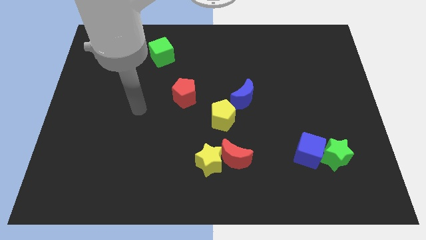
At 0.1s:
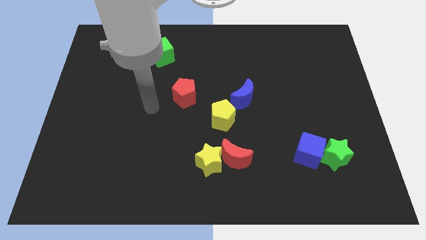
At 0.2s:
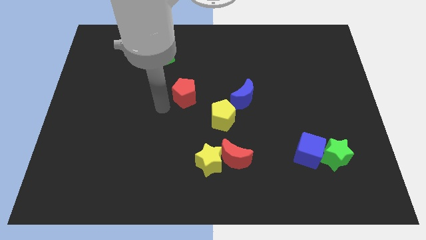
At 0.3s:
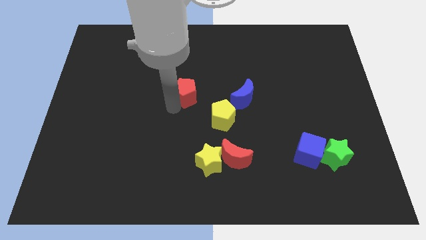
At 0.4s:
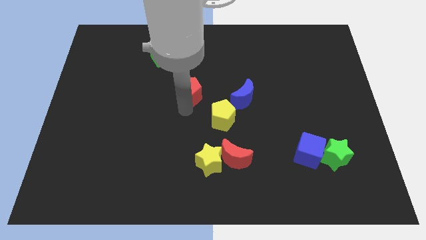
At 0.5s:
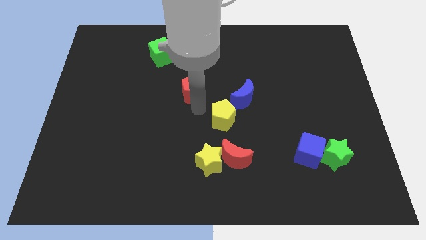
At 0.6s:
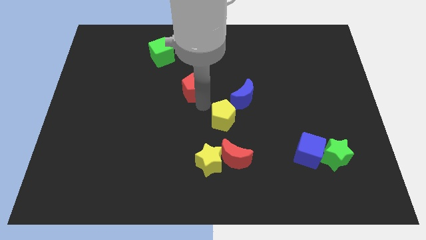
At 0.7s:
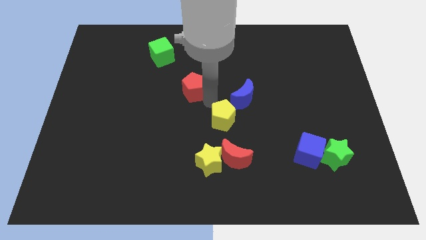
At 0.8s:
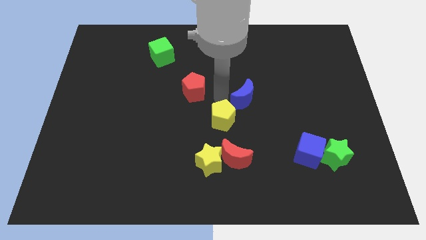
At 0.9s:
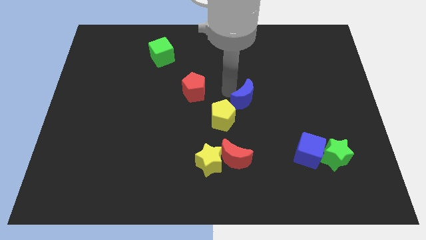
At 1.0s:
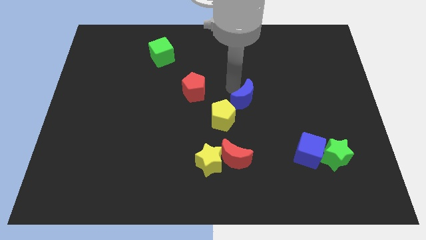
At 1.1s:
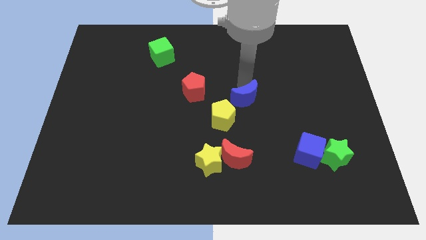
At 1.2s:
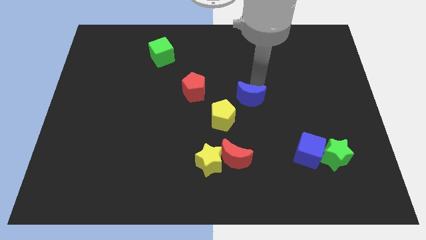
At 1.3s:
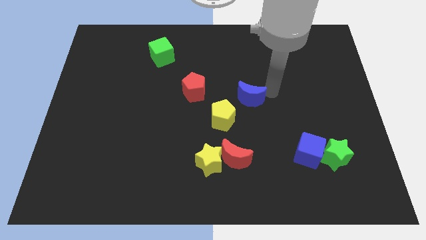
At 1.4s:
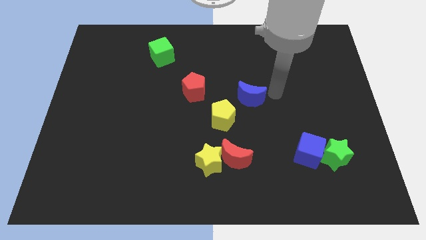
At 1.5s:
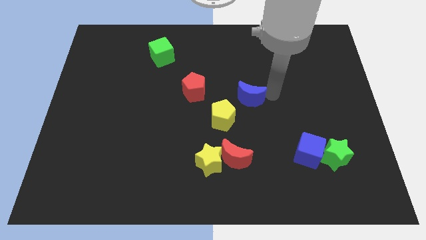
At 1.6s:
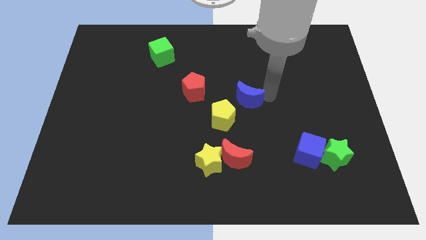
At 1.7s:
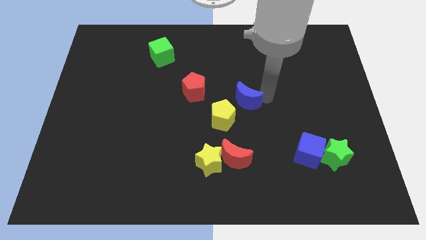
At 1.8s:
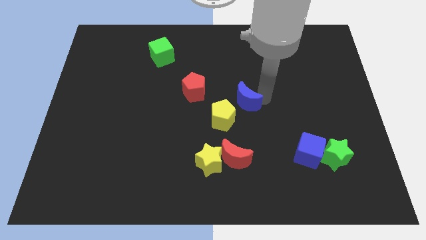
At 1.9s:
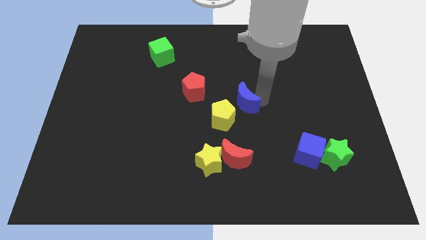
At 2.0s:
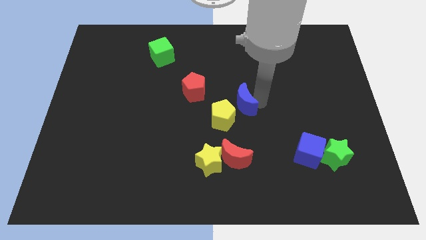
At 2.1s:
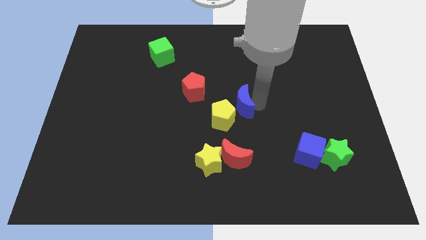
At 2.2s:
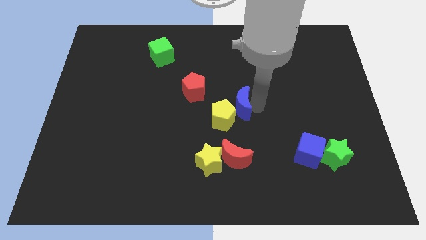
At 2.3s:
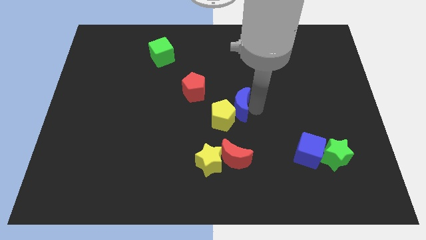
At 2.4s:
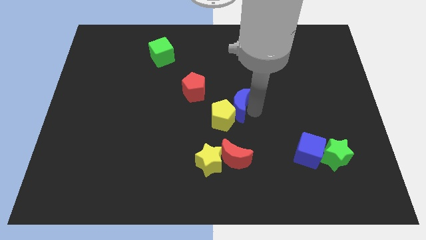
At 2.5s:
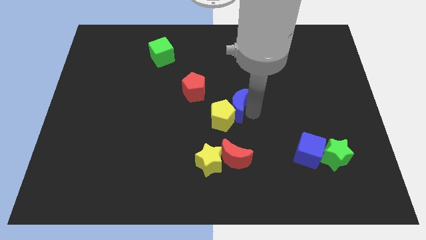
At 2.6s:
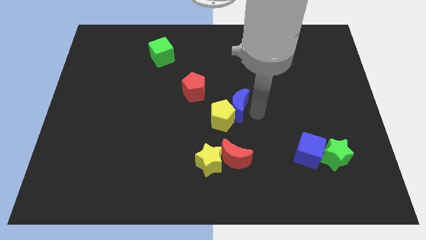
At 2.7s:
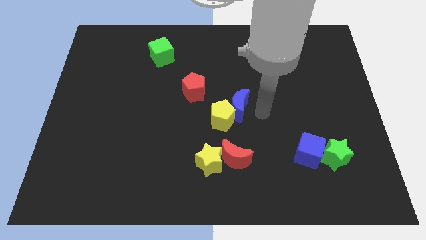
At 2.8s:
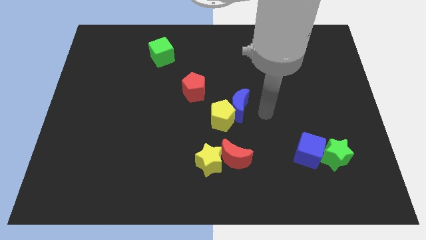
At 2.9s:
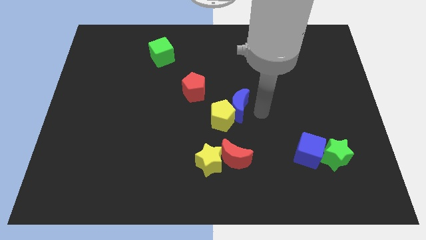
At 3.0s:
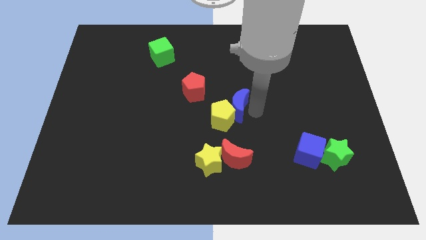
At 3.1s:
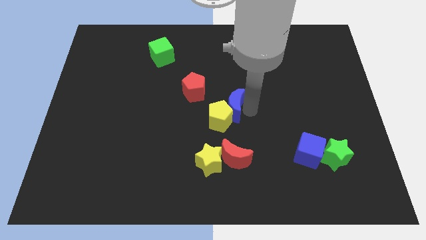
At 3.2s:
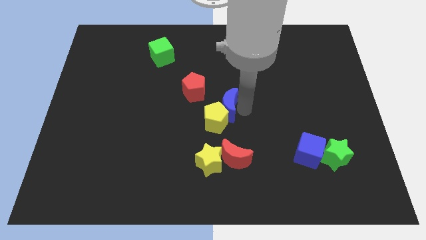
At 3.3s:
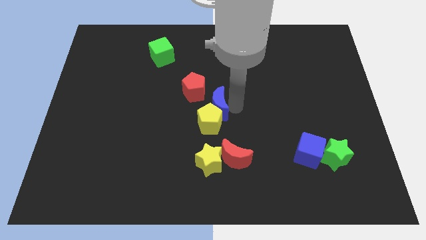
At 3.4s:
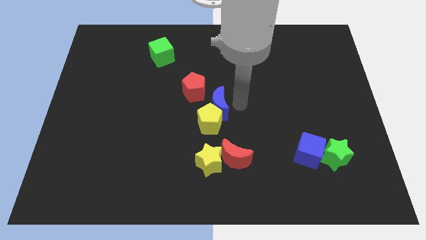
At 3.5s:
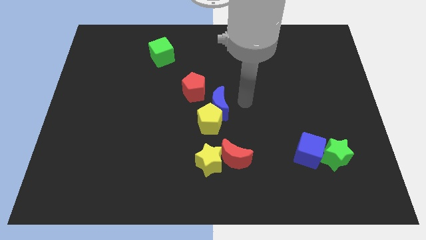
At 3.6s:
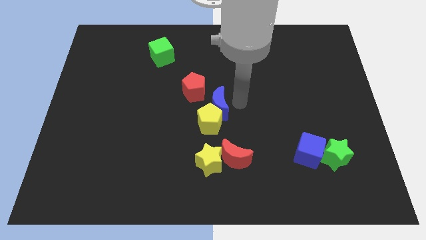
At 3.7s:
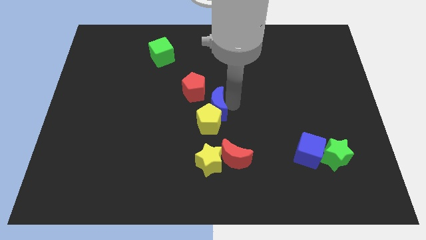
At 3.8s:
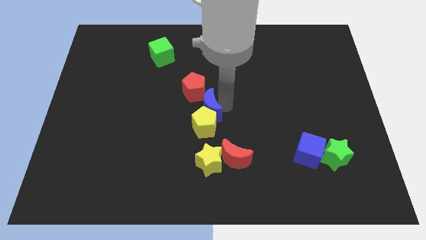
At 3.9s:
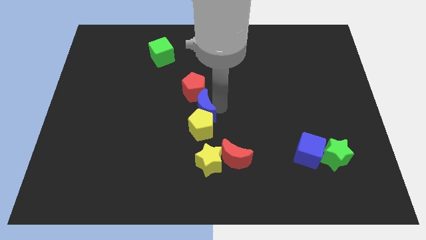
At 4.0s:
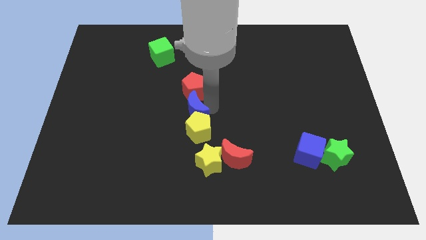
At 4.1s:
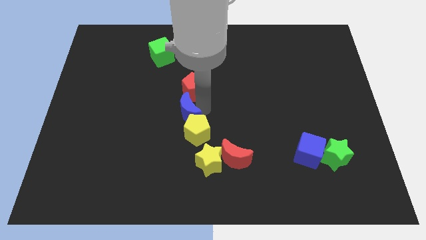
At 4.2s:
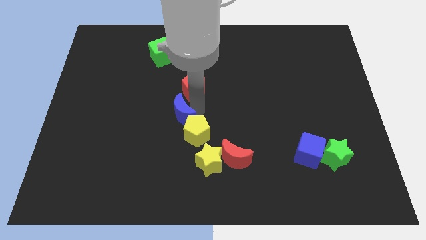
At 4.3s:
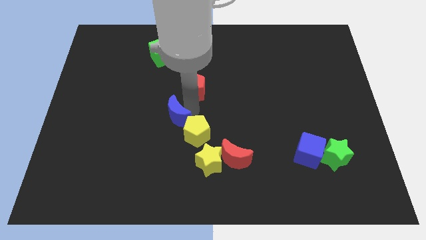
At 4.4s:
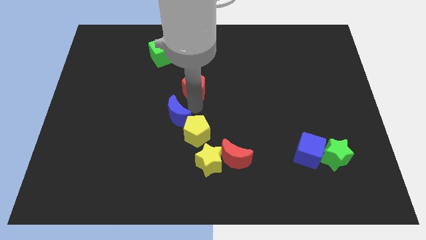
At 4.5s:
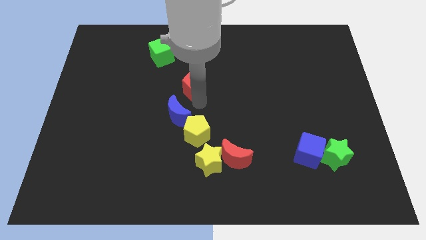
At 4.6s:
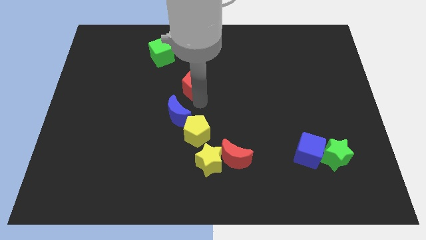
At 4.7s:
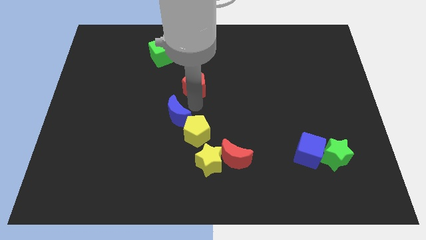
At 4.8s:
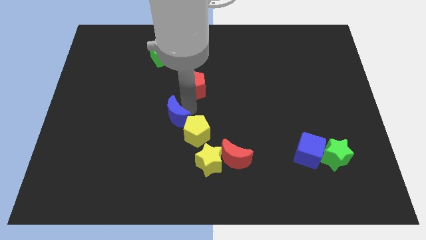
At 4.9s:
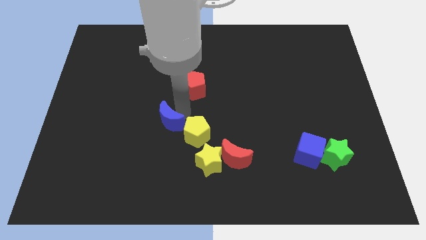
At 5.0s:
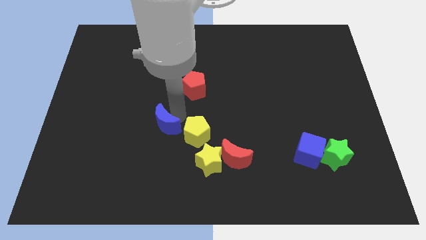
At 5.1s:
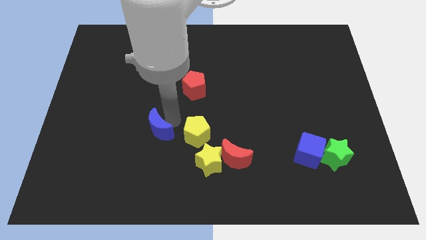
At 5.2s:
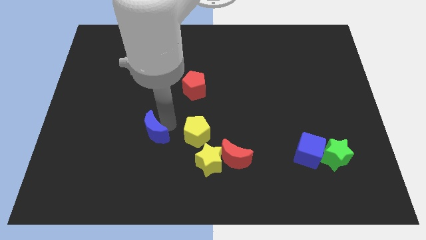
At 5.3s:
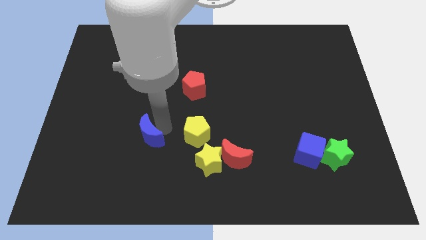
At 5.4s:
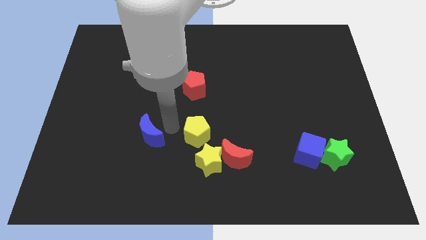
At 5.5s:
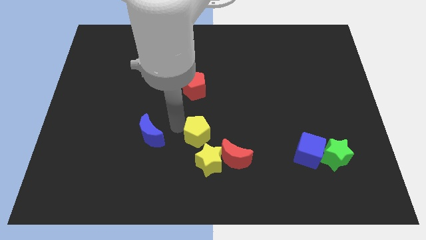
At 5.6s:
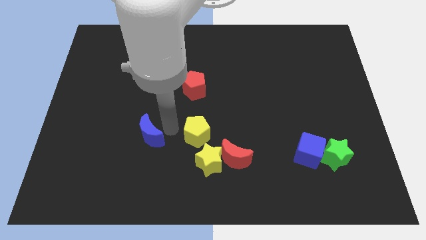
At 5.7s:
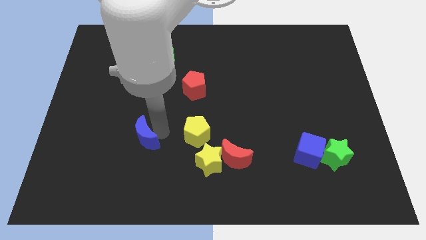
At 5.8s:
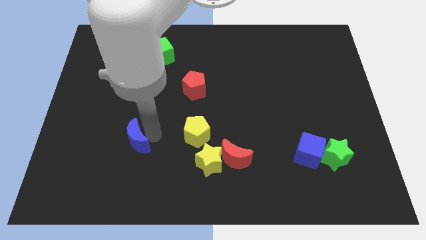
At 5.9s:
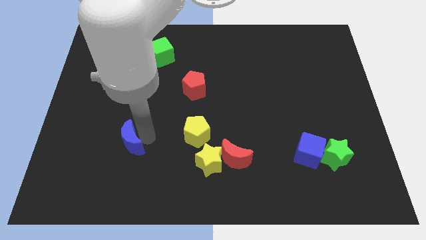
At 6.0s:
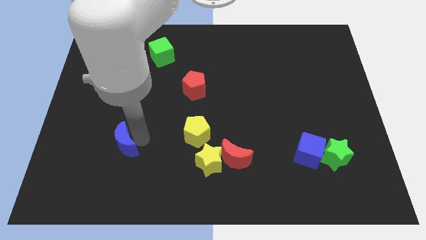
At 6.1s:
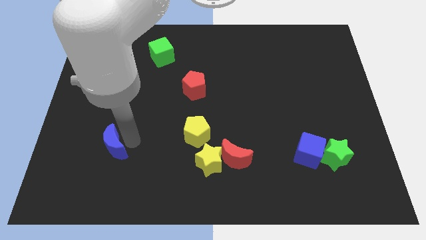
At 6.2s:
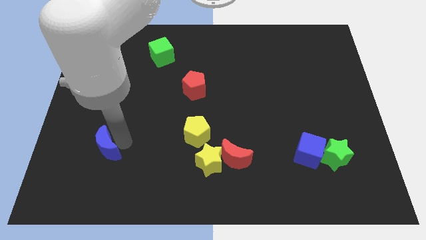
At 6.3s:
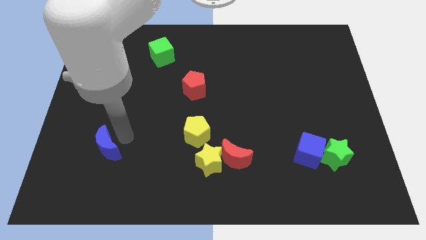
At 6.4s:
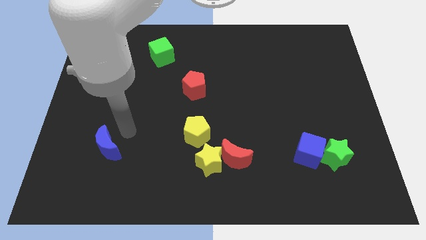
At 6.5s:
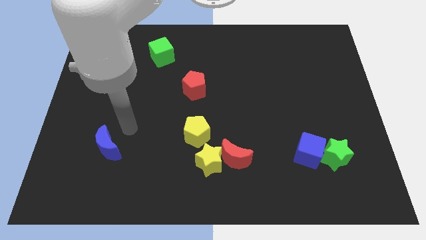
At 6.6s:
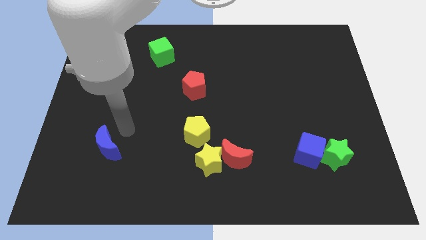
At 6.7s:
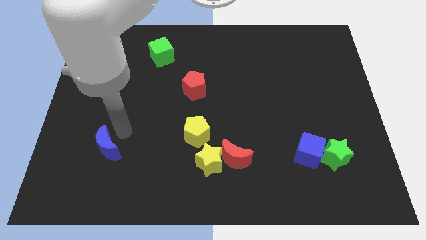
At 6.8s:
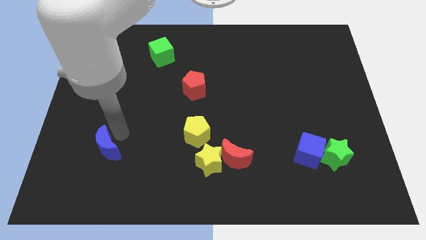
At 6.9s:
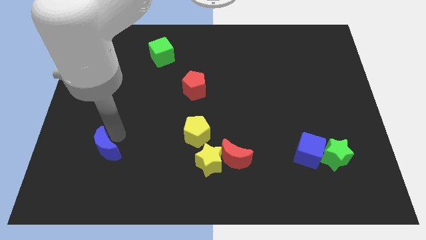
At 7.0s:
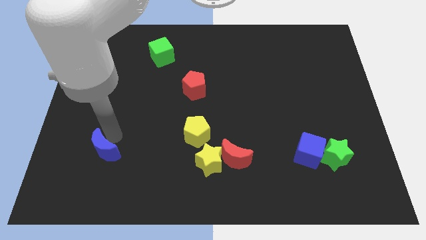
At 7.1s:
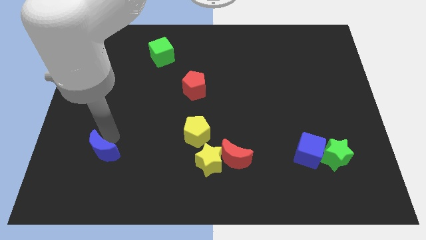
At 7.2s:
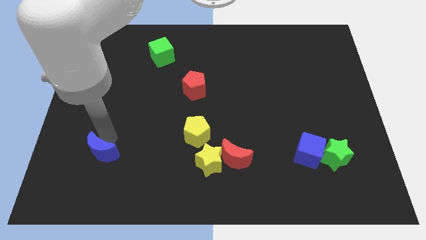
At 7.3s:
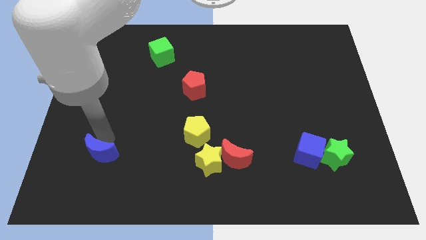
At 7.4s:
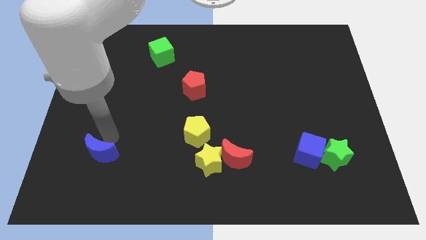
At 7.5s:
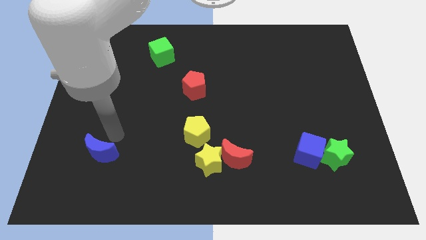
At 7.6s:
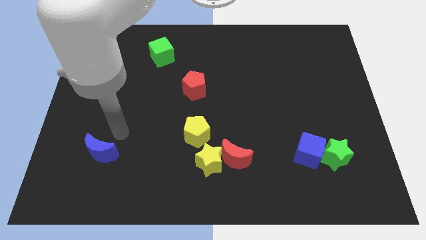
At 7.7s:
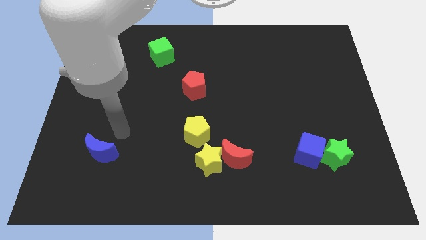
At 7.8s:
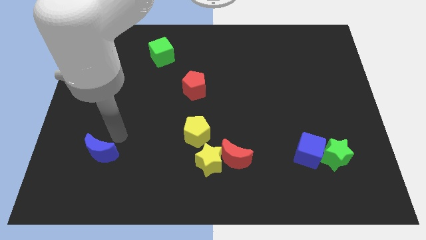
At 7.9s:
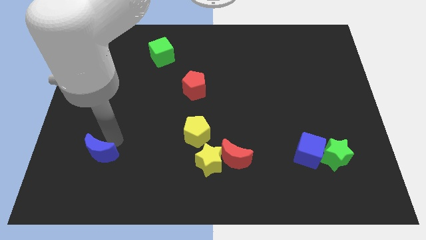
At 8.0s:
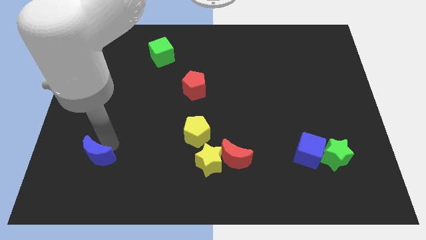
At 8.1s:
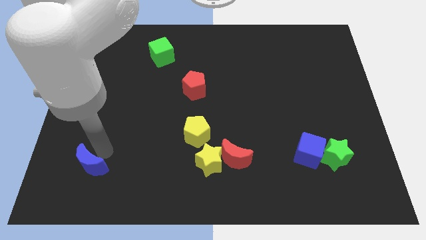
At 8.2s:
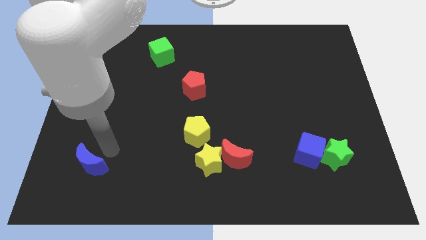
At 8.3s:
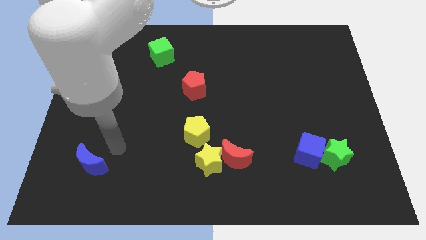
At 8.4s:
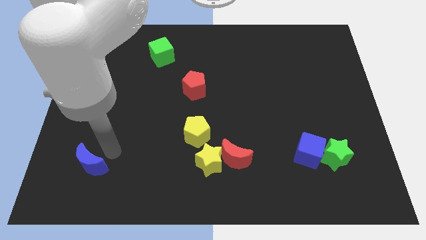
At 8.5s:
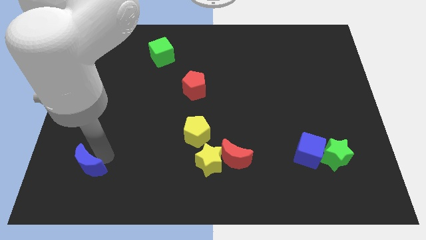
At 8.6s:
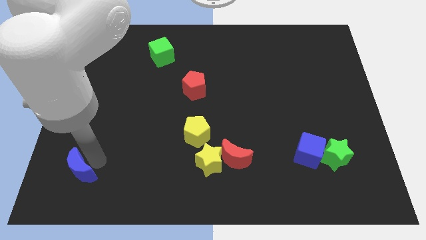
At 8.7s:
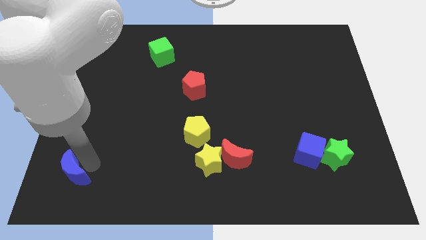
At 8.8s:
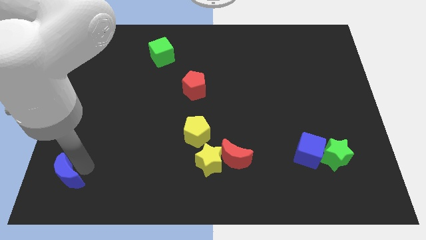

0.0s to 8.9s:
slide the blue moon to the bottom left corner
